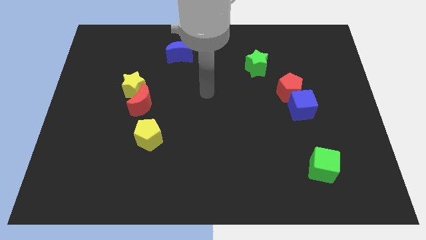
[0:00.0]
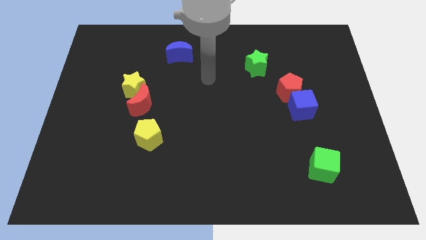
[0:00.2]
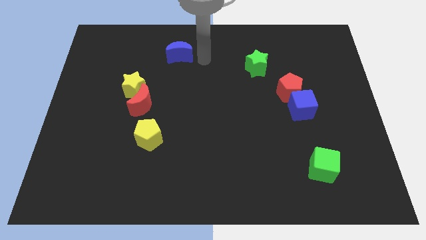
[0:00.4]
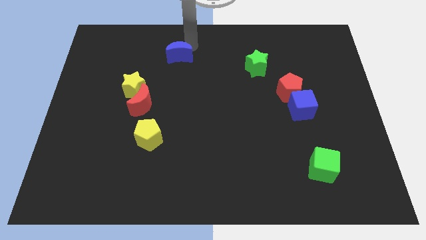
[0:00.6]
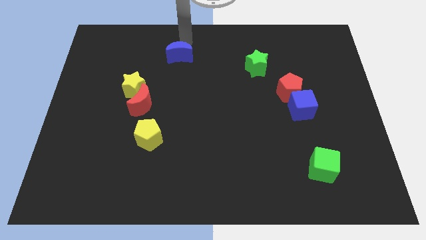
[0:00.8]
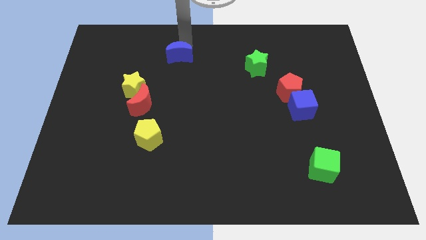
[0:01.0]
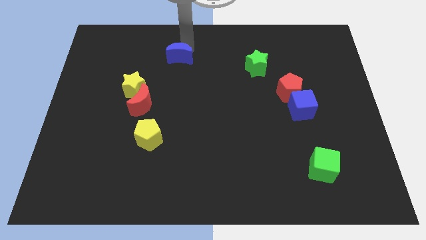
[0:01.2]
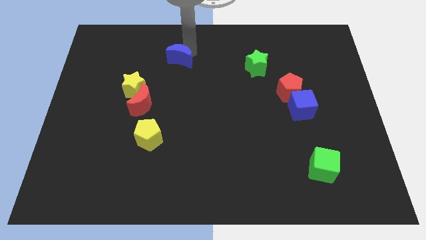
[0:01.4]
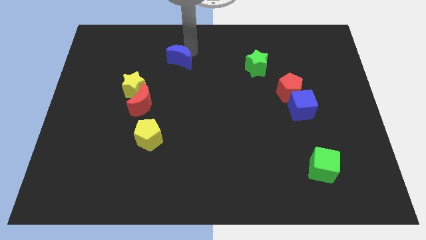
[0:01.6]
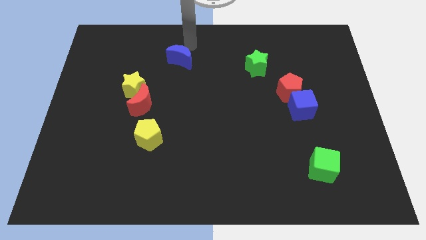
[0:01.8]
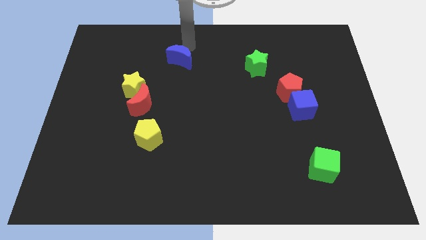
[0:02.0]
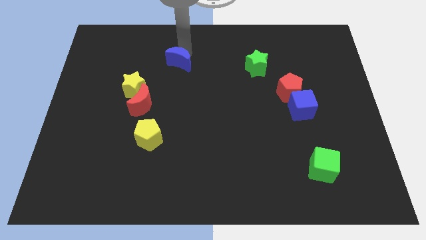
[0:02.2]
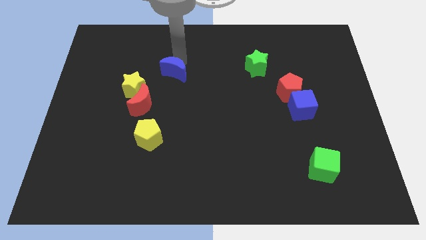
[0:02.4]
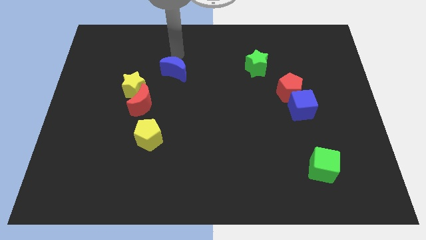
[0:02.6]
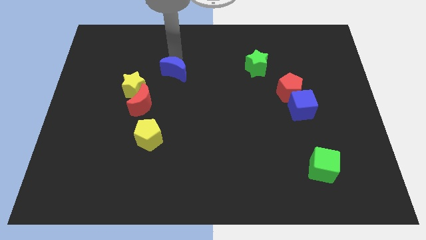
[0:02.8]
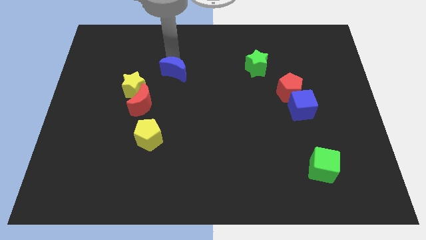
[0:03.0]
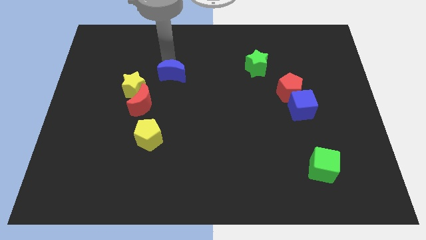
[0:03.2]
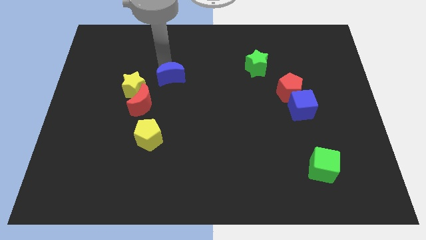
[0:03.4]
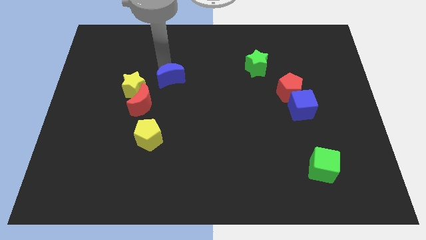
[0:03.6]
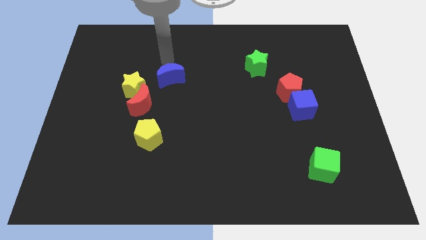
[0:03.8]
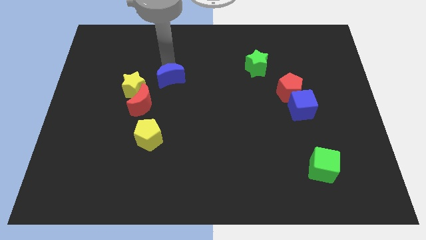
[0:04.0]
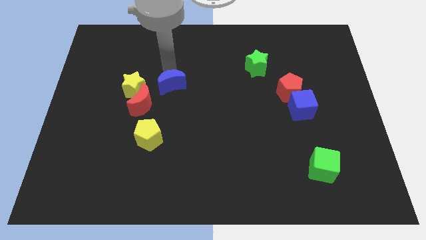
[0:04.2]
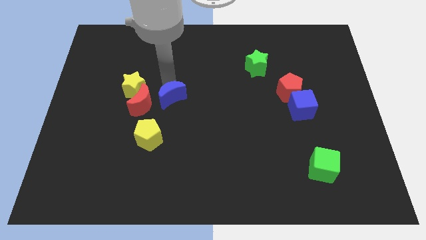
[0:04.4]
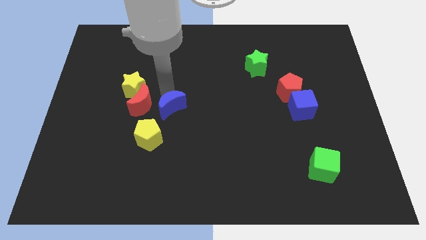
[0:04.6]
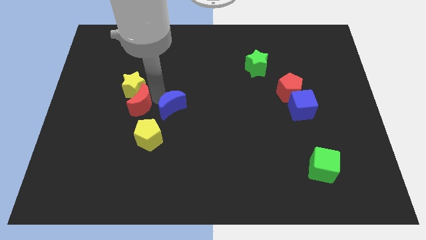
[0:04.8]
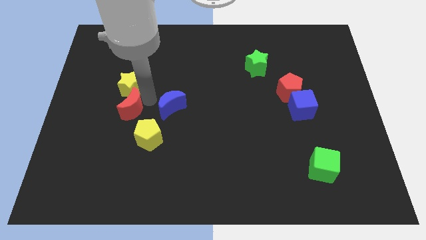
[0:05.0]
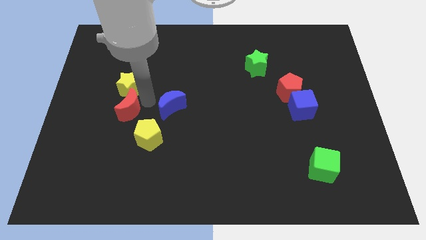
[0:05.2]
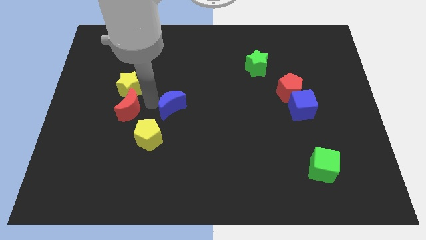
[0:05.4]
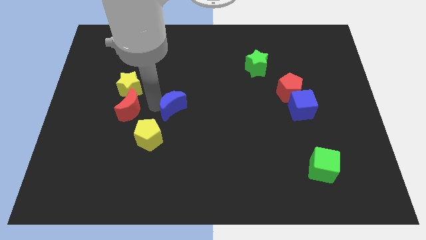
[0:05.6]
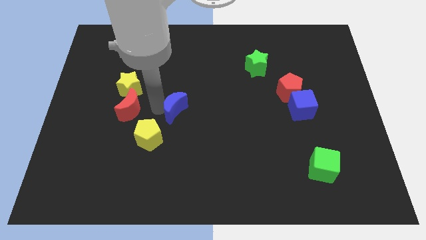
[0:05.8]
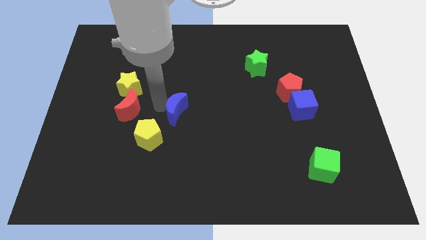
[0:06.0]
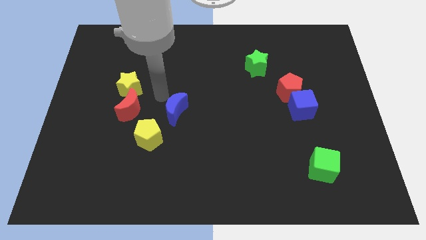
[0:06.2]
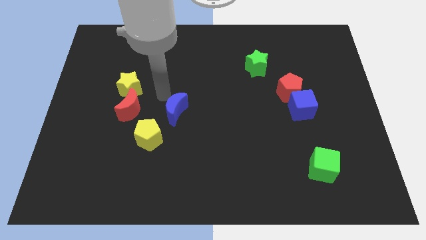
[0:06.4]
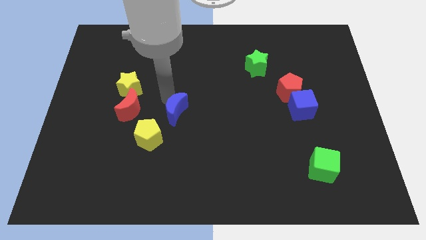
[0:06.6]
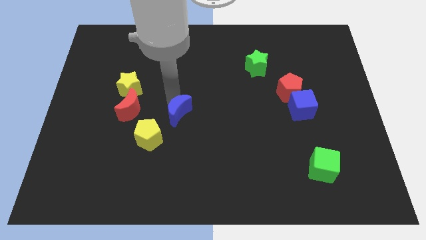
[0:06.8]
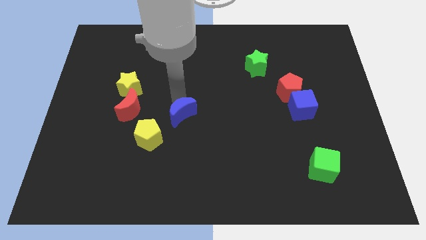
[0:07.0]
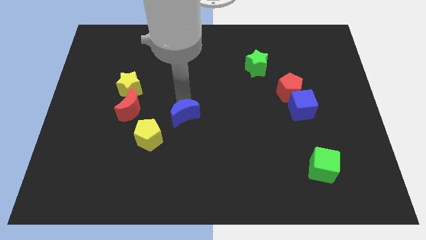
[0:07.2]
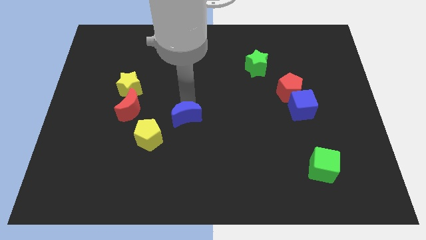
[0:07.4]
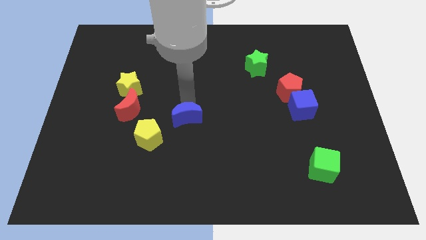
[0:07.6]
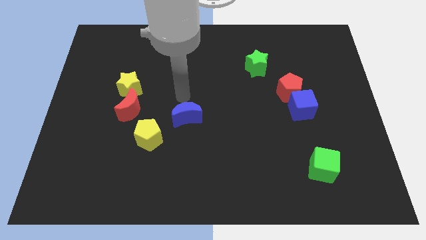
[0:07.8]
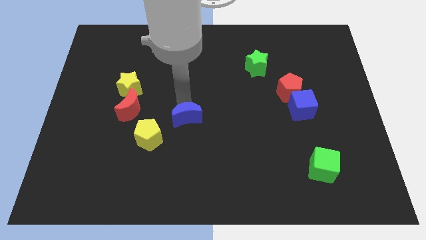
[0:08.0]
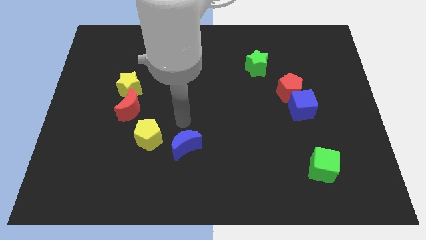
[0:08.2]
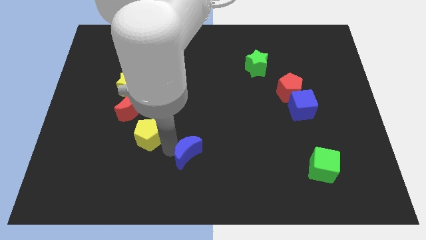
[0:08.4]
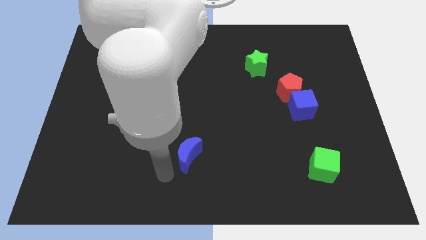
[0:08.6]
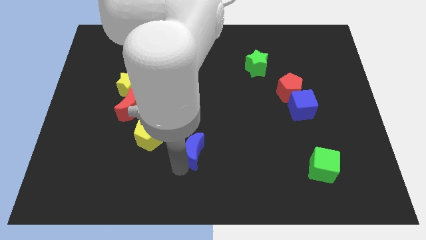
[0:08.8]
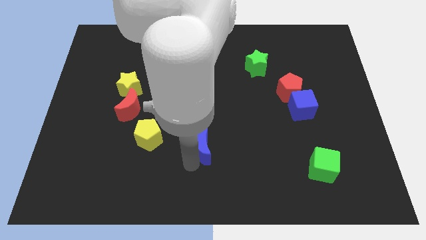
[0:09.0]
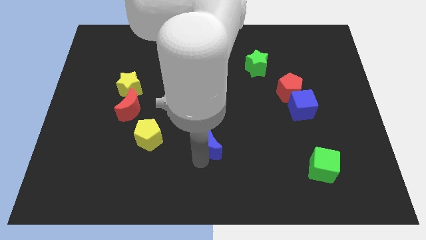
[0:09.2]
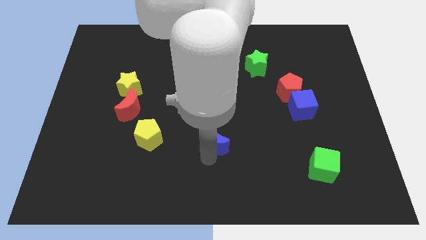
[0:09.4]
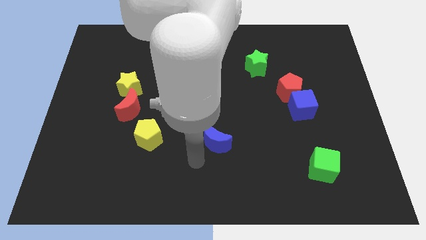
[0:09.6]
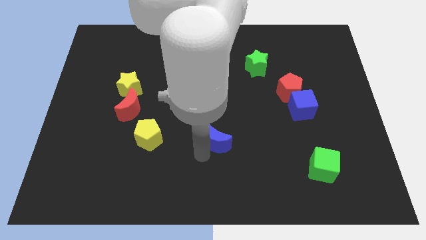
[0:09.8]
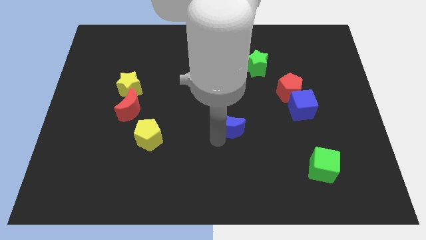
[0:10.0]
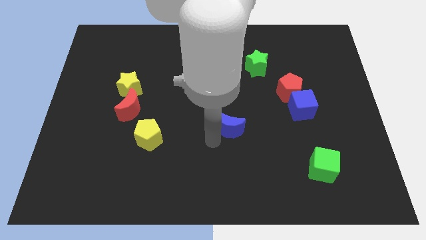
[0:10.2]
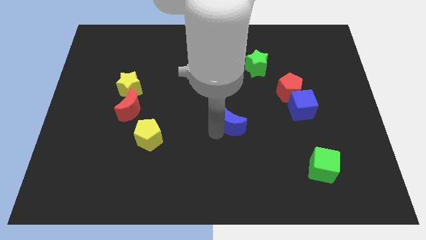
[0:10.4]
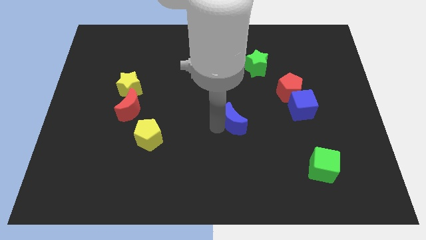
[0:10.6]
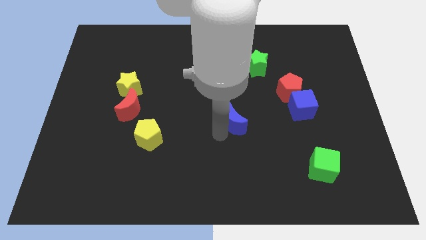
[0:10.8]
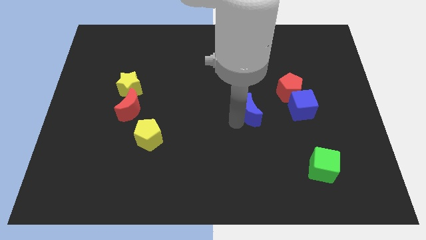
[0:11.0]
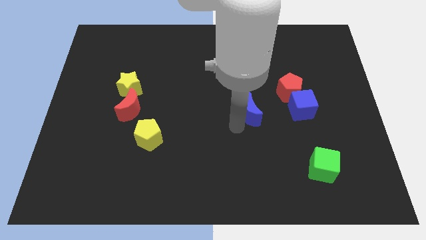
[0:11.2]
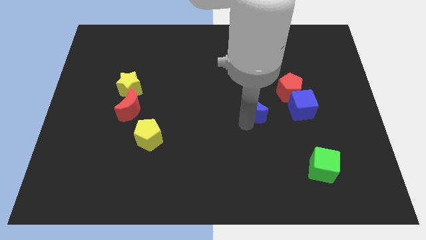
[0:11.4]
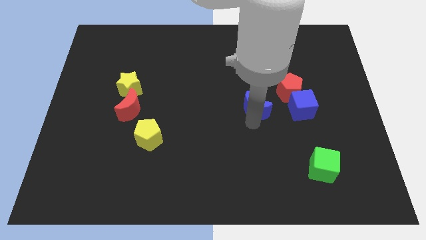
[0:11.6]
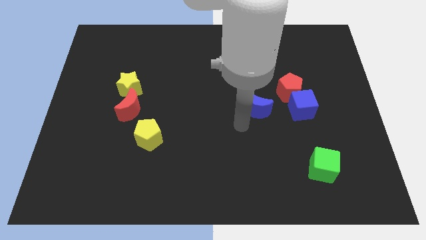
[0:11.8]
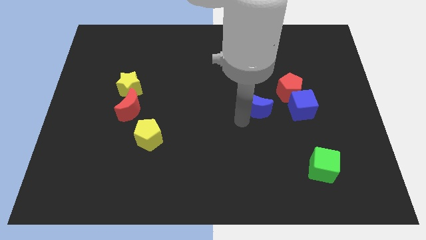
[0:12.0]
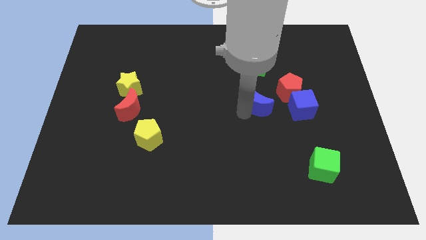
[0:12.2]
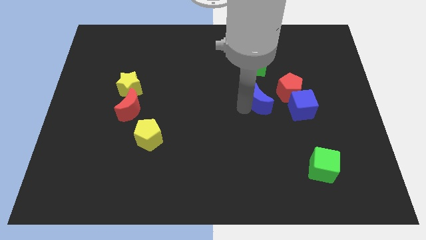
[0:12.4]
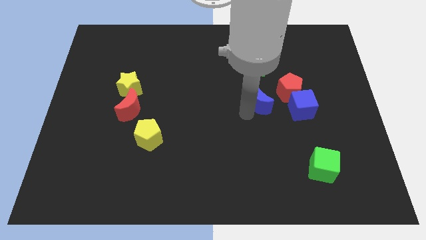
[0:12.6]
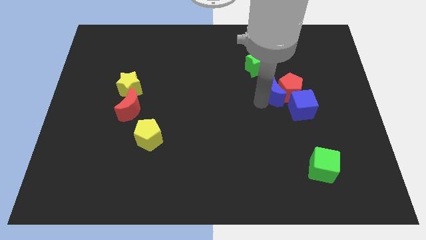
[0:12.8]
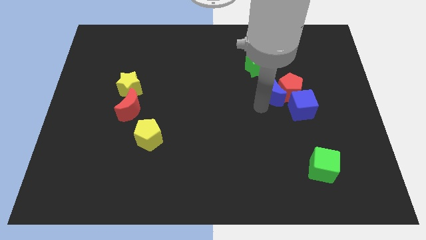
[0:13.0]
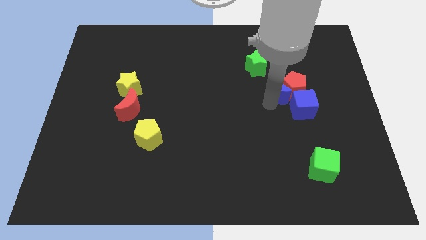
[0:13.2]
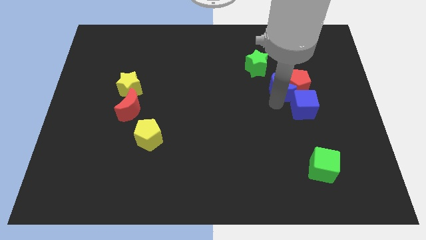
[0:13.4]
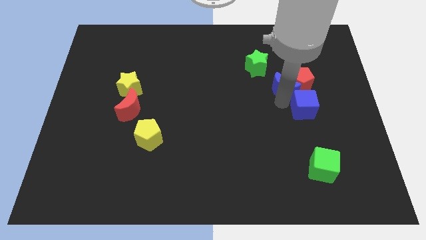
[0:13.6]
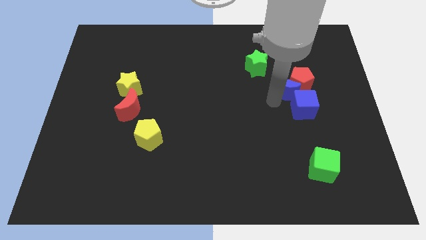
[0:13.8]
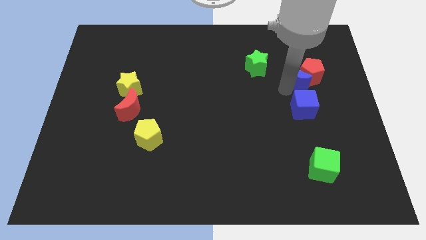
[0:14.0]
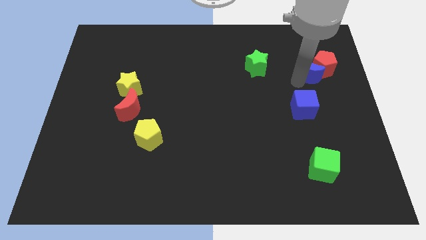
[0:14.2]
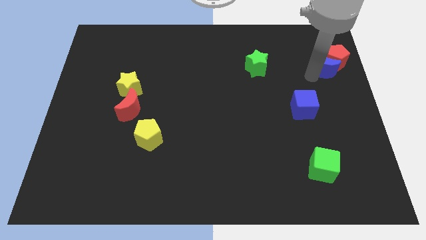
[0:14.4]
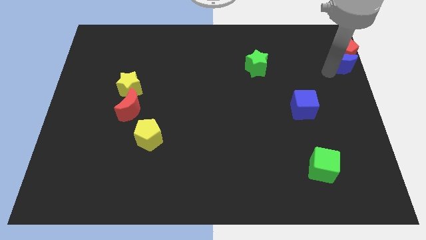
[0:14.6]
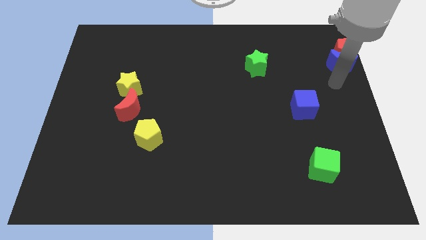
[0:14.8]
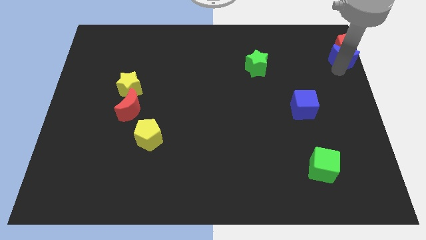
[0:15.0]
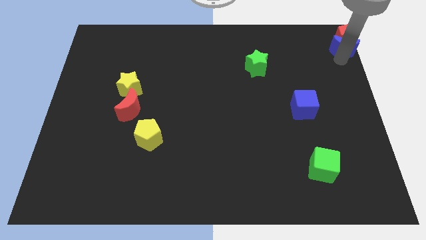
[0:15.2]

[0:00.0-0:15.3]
slide the blue moon to the top right
